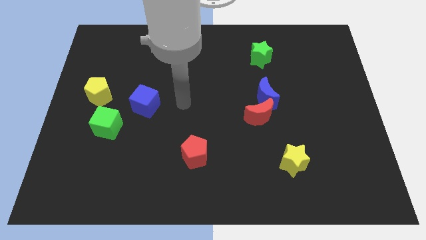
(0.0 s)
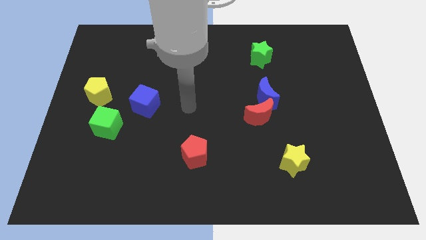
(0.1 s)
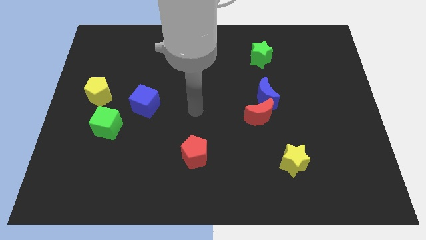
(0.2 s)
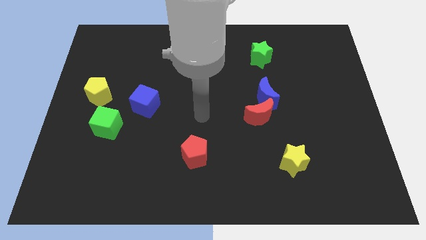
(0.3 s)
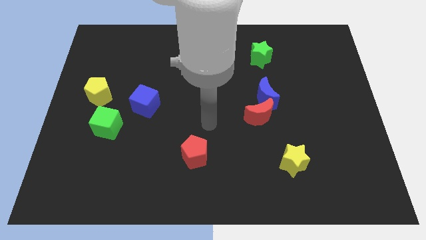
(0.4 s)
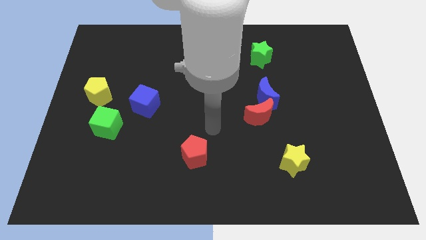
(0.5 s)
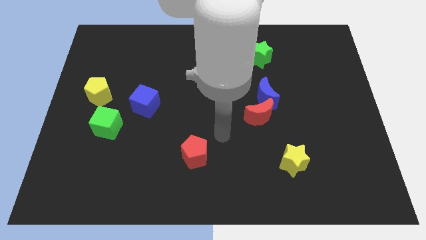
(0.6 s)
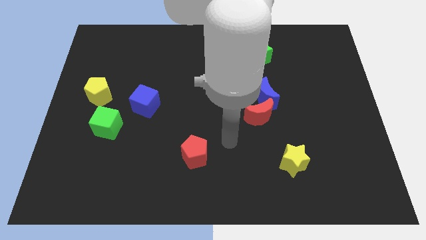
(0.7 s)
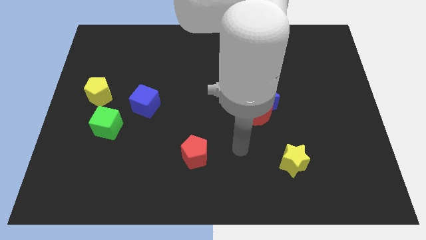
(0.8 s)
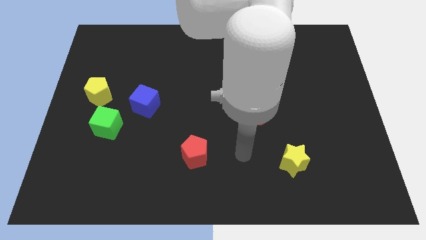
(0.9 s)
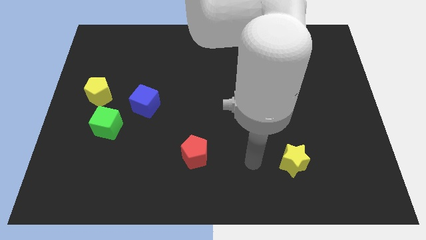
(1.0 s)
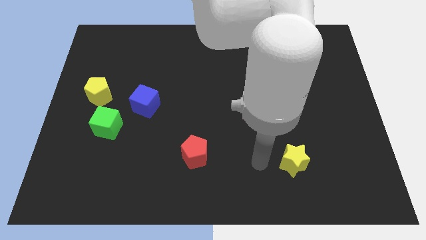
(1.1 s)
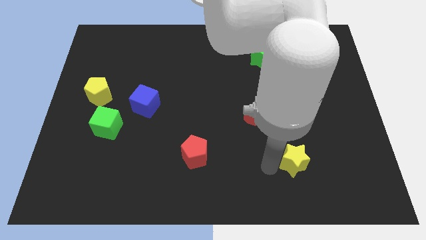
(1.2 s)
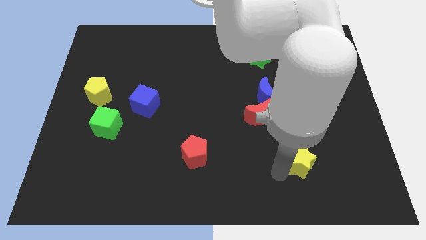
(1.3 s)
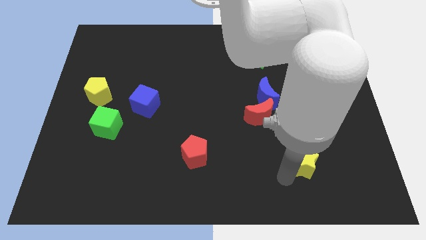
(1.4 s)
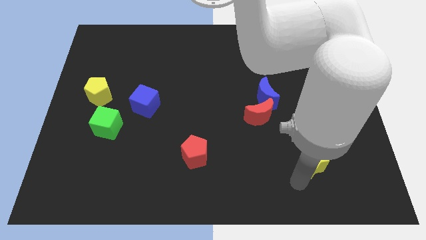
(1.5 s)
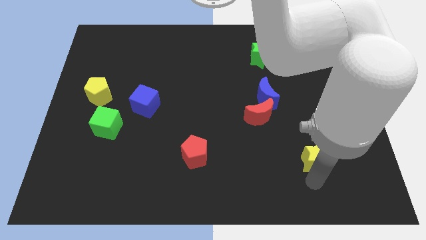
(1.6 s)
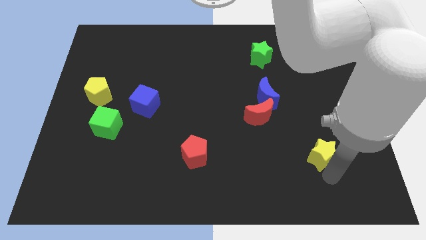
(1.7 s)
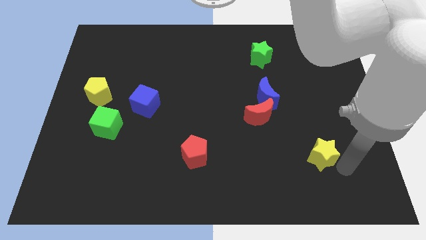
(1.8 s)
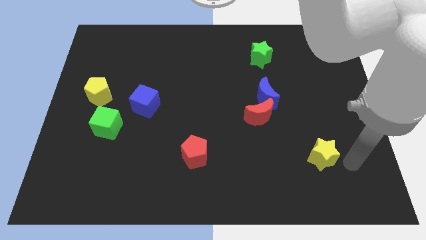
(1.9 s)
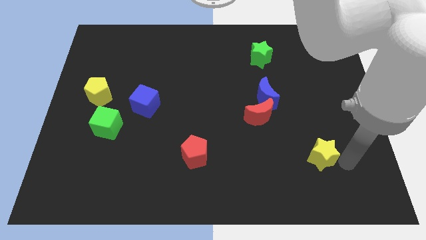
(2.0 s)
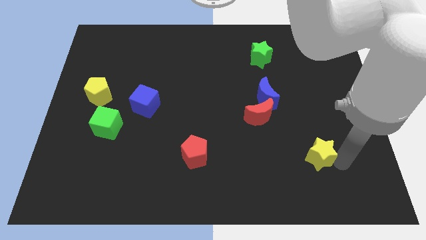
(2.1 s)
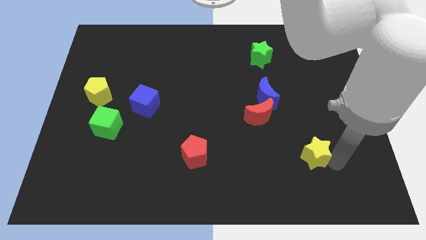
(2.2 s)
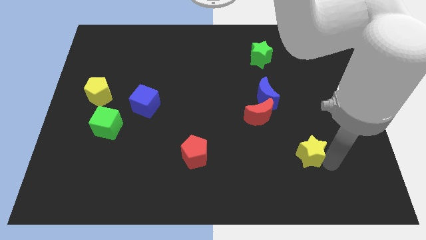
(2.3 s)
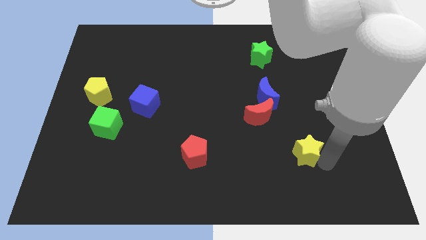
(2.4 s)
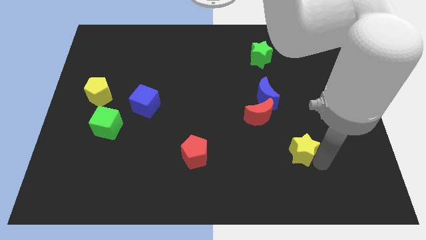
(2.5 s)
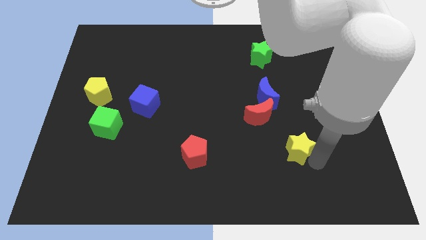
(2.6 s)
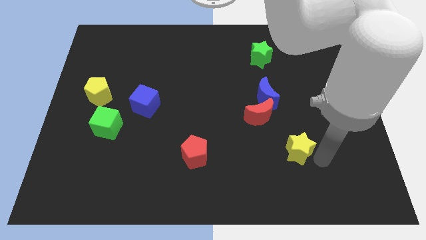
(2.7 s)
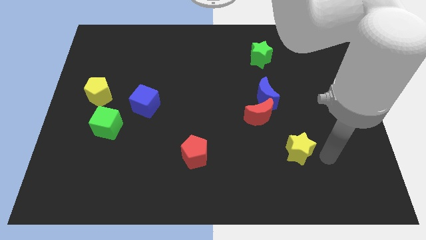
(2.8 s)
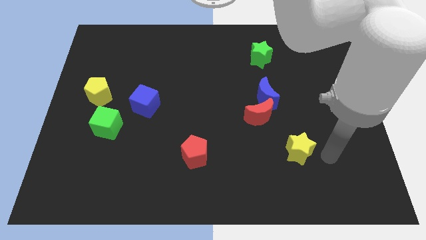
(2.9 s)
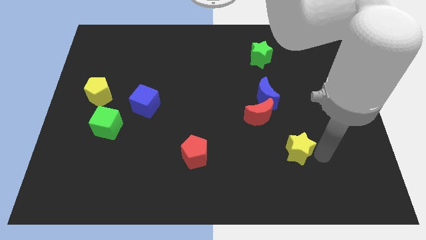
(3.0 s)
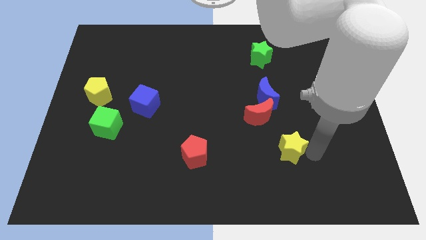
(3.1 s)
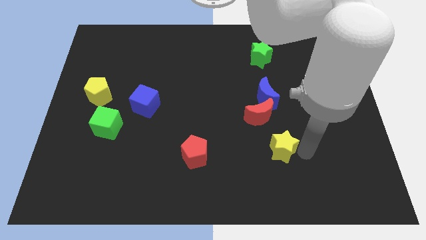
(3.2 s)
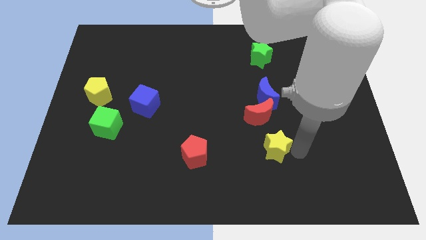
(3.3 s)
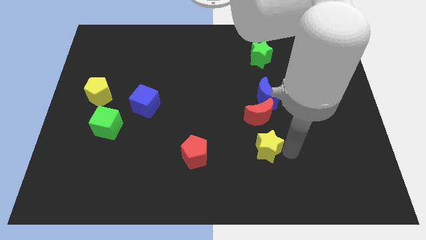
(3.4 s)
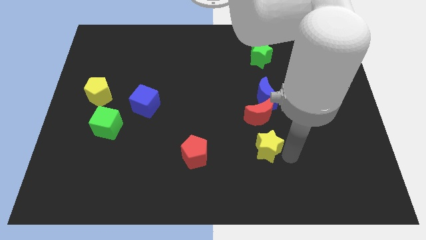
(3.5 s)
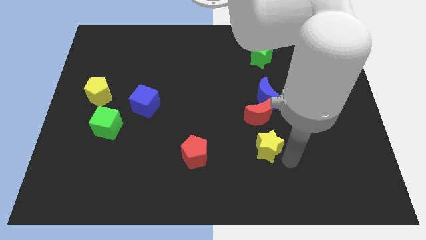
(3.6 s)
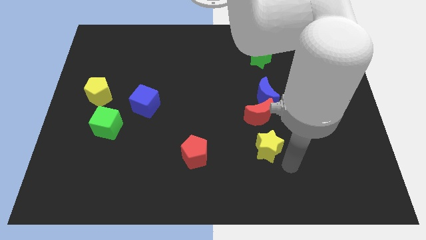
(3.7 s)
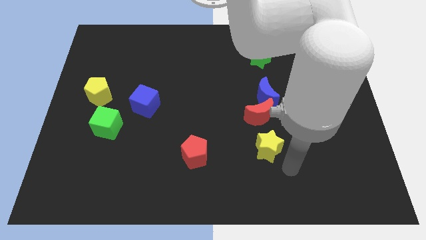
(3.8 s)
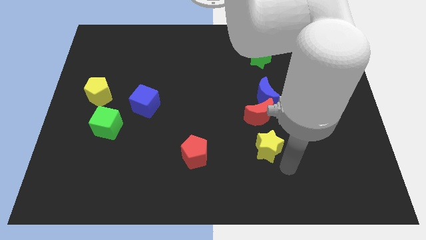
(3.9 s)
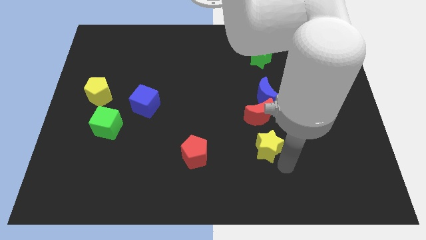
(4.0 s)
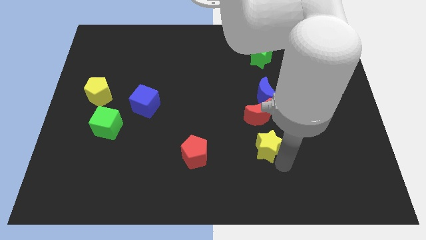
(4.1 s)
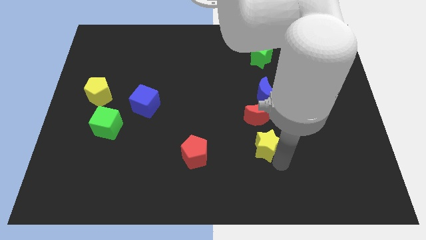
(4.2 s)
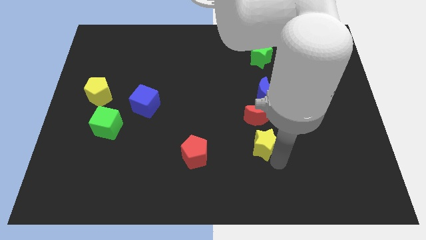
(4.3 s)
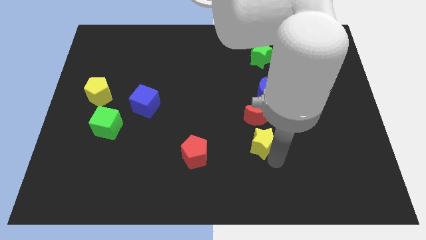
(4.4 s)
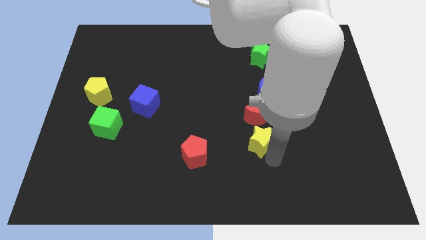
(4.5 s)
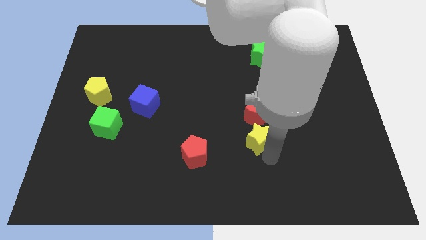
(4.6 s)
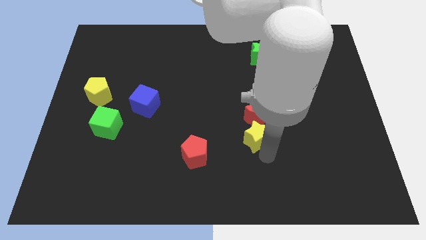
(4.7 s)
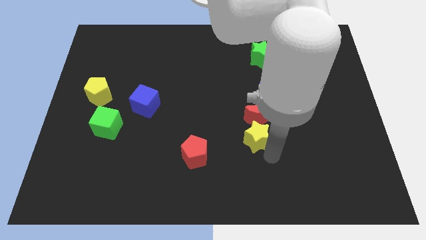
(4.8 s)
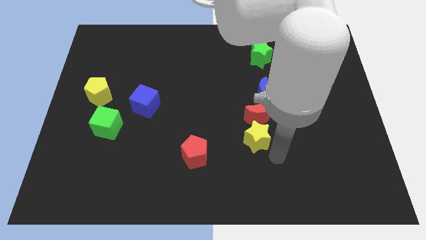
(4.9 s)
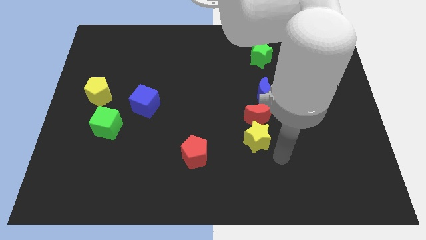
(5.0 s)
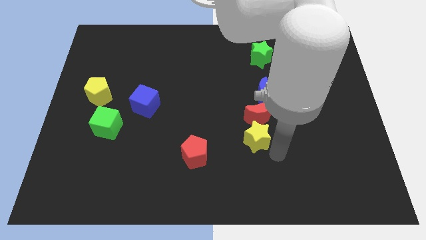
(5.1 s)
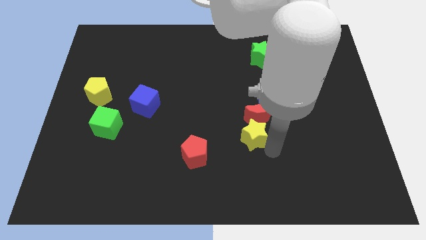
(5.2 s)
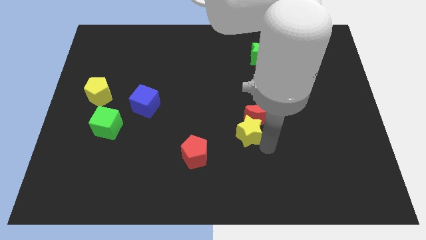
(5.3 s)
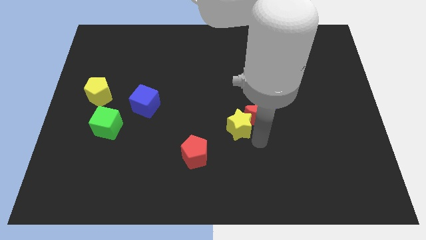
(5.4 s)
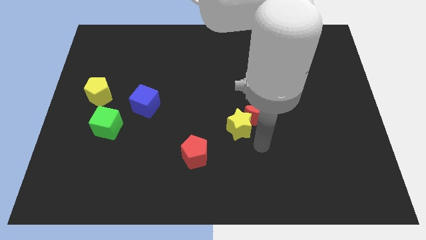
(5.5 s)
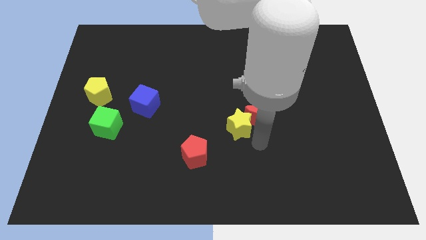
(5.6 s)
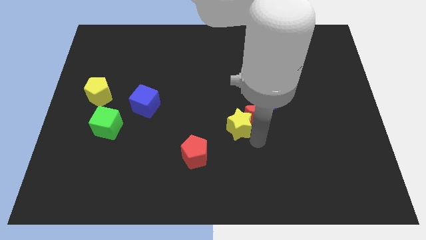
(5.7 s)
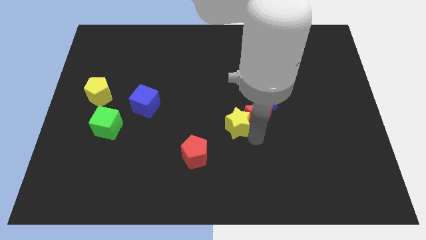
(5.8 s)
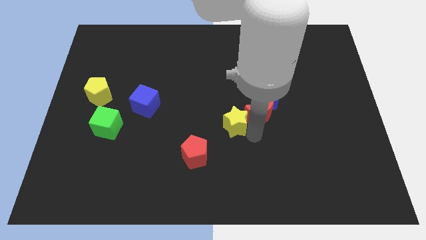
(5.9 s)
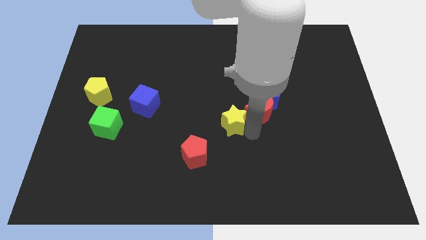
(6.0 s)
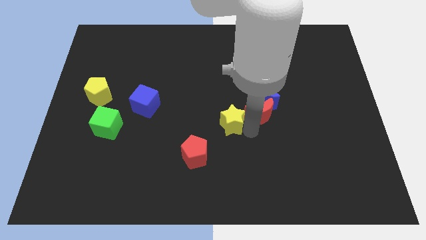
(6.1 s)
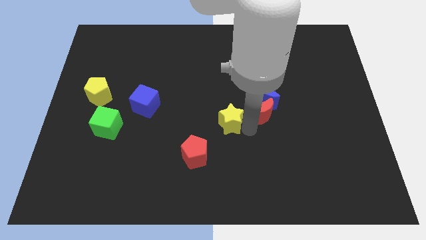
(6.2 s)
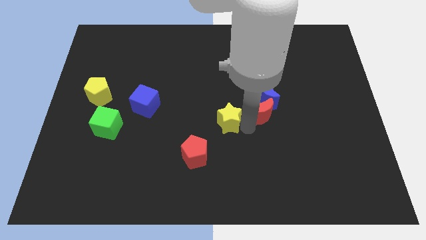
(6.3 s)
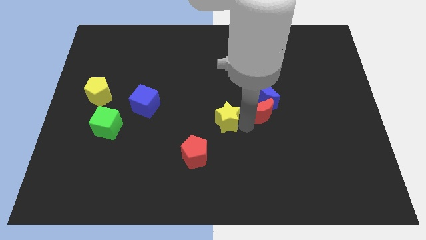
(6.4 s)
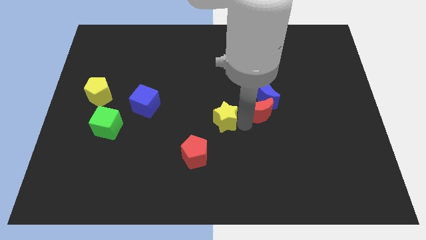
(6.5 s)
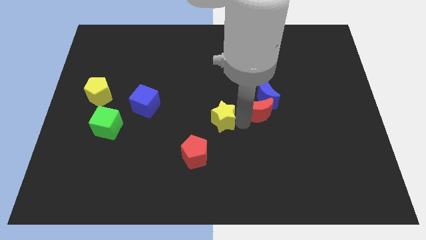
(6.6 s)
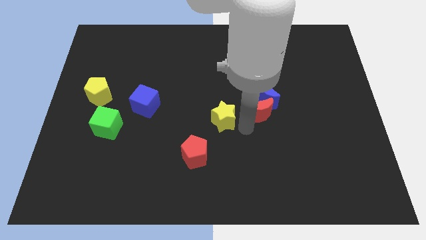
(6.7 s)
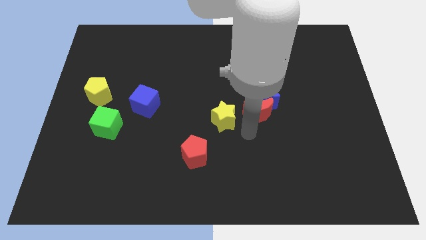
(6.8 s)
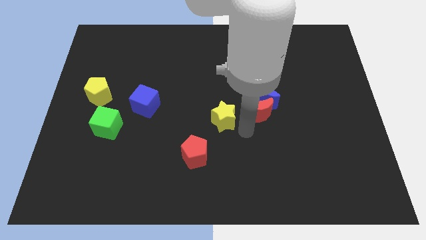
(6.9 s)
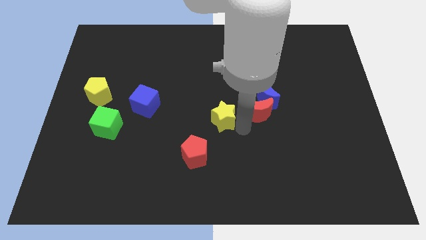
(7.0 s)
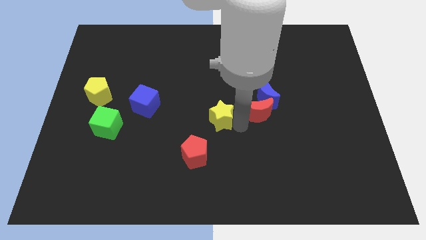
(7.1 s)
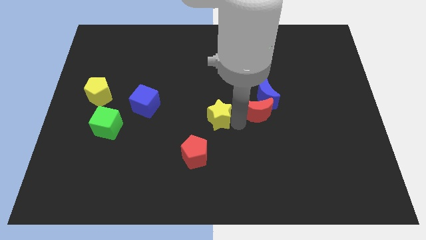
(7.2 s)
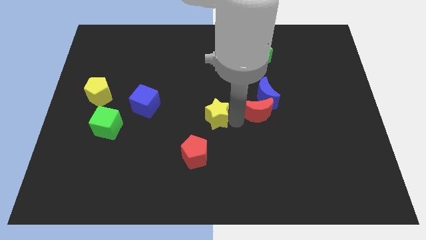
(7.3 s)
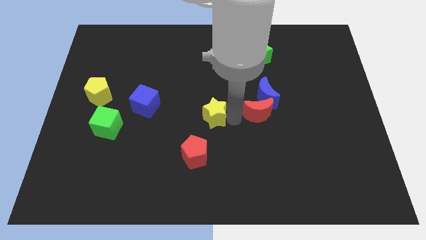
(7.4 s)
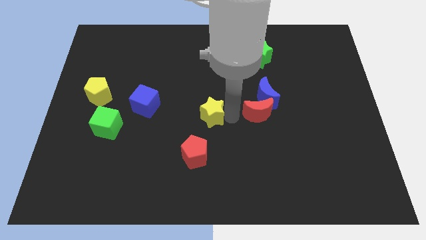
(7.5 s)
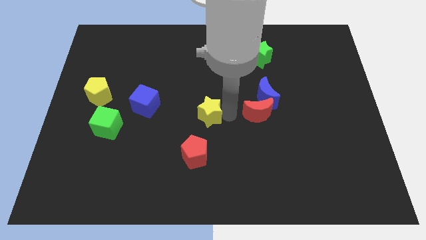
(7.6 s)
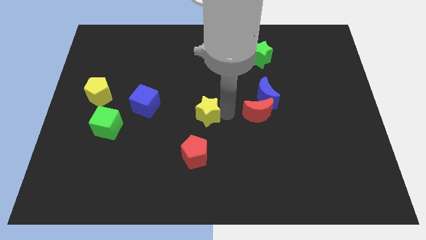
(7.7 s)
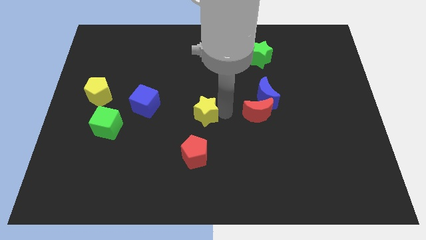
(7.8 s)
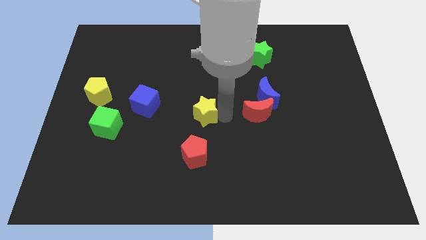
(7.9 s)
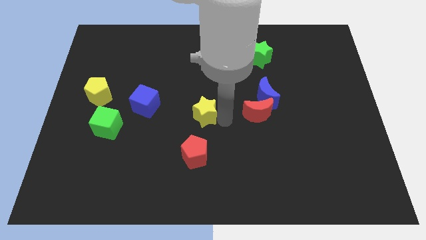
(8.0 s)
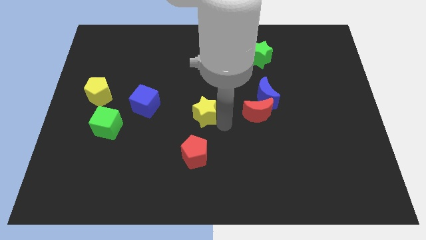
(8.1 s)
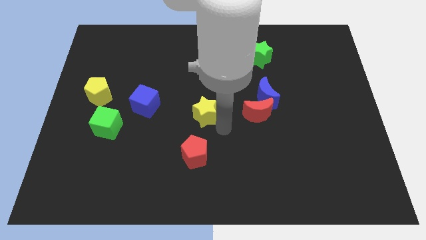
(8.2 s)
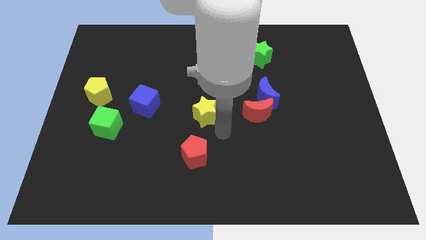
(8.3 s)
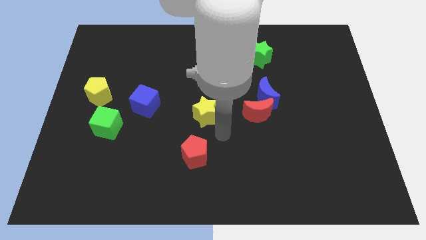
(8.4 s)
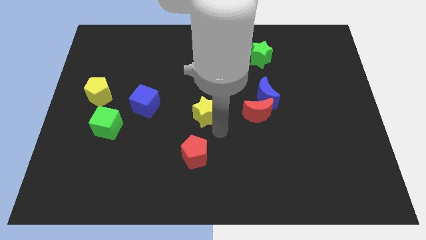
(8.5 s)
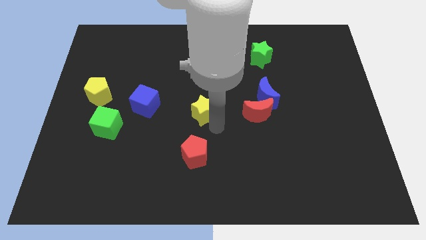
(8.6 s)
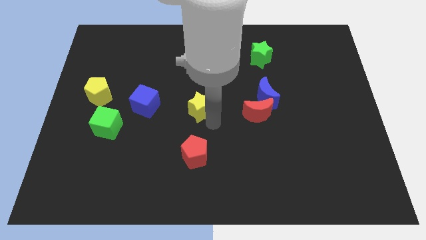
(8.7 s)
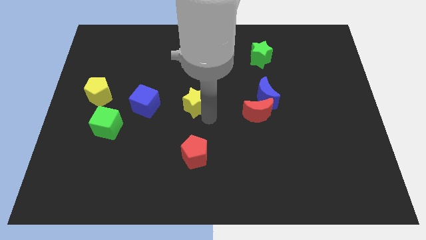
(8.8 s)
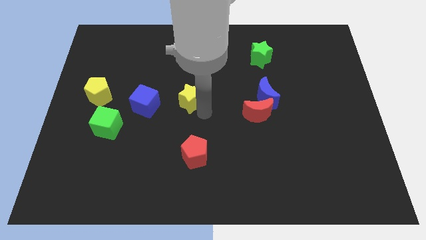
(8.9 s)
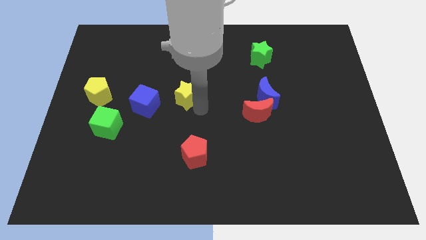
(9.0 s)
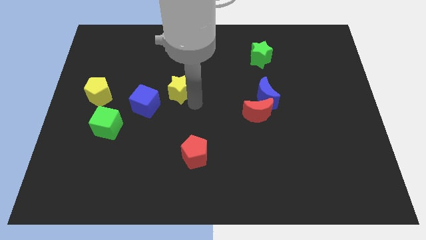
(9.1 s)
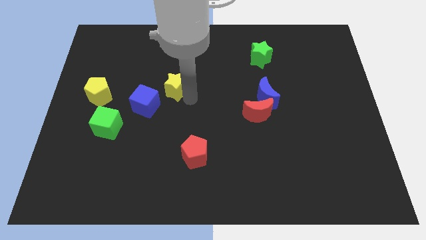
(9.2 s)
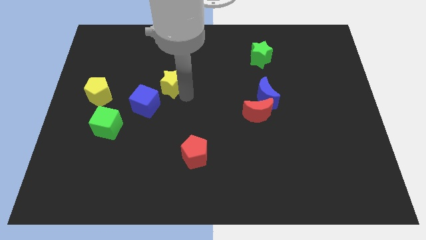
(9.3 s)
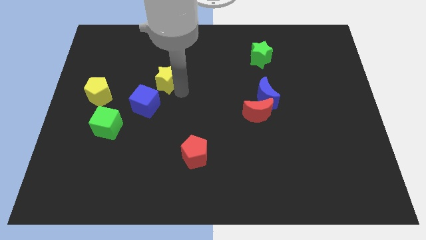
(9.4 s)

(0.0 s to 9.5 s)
push the yellow star to the top side of the blue cube
